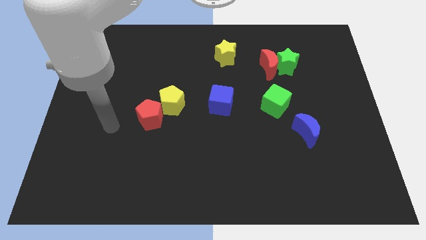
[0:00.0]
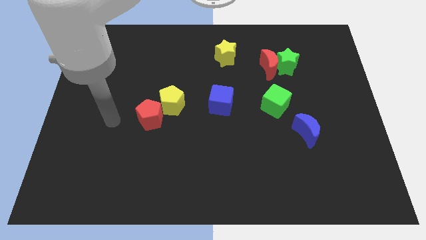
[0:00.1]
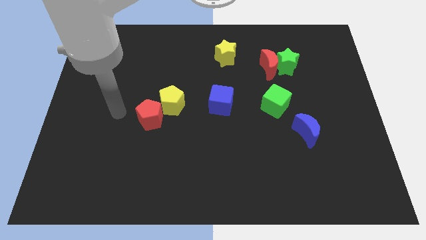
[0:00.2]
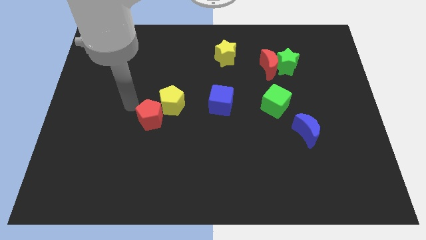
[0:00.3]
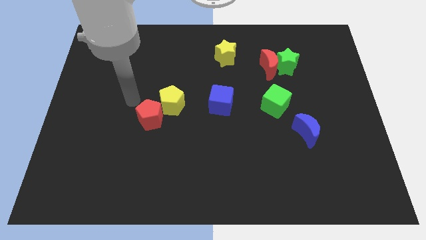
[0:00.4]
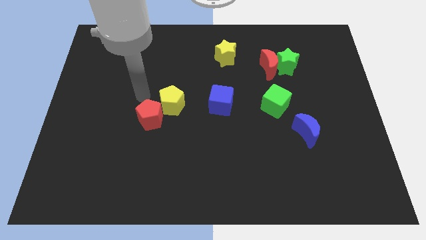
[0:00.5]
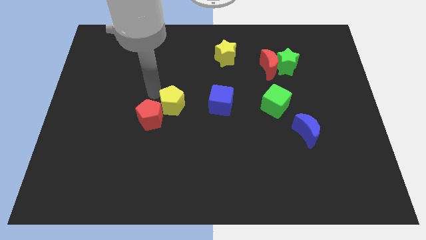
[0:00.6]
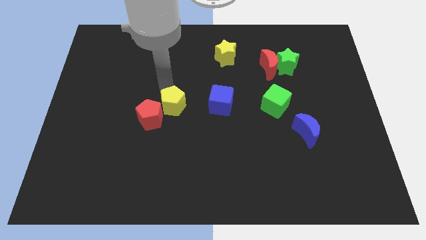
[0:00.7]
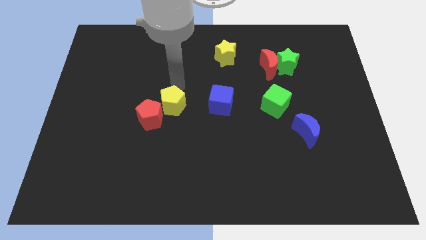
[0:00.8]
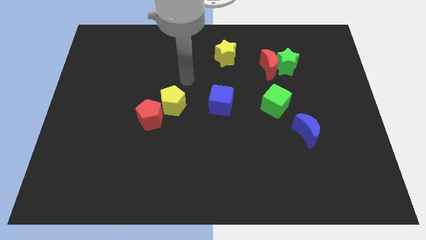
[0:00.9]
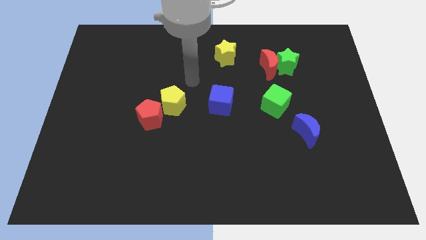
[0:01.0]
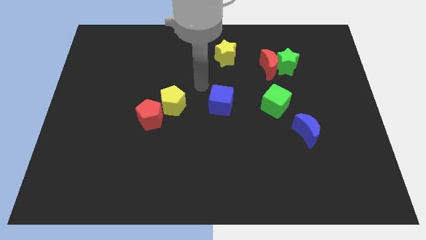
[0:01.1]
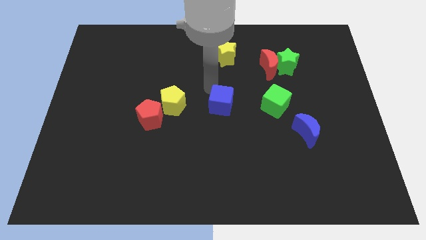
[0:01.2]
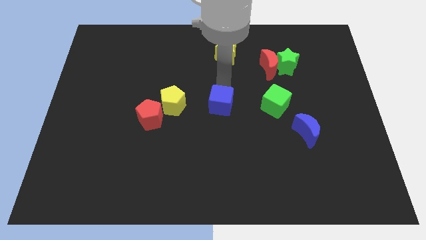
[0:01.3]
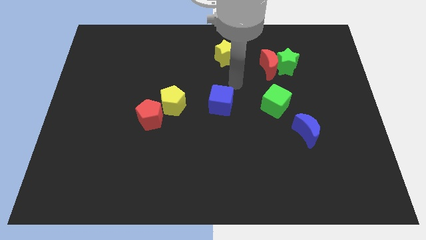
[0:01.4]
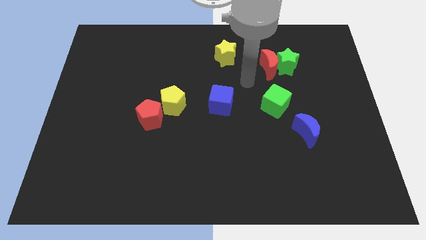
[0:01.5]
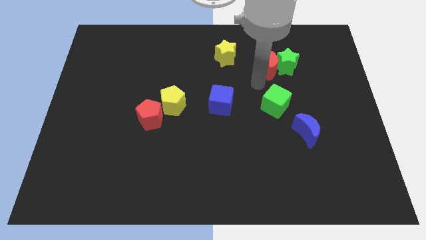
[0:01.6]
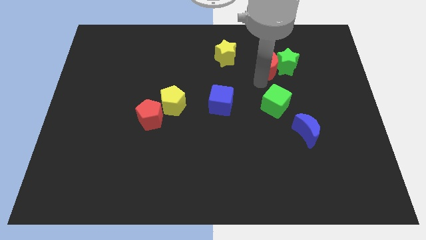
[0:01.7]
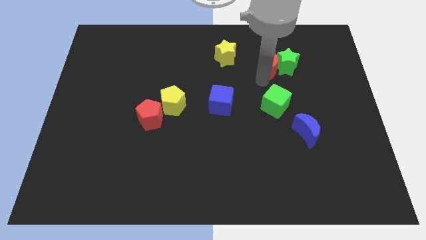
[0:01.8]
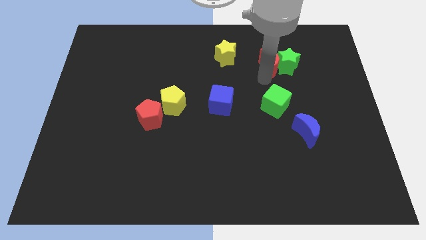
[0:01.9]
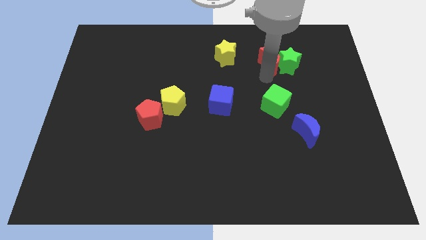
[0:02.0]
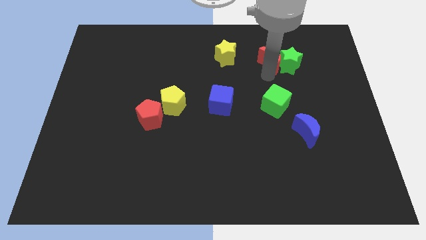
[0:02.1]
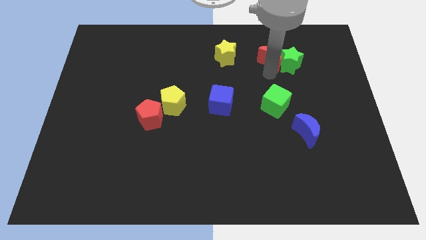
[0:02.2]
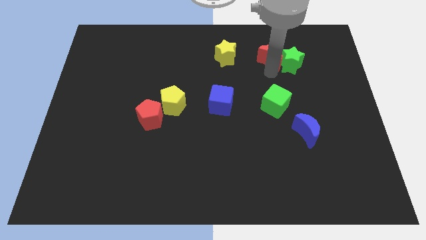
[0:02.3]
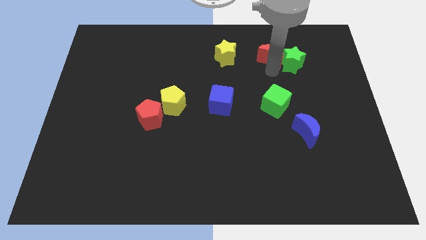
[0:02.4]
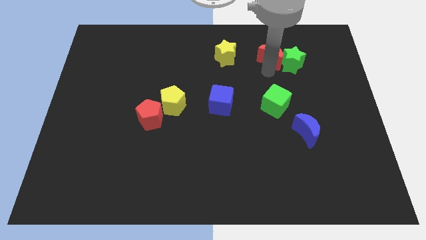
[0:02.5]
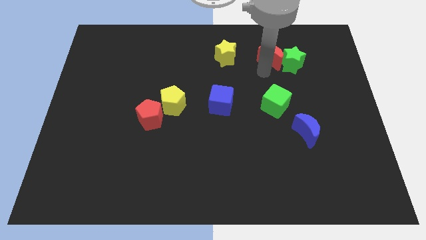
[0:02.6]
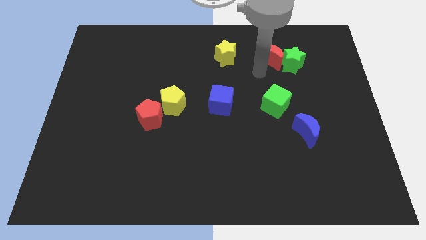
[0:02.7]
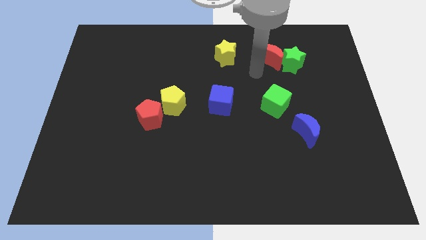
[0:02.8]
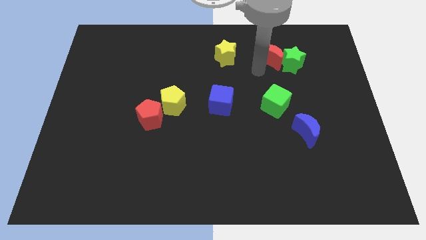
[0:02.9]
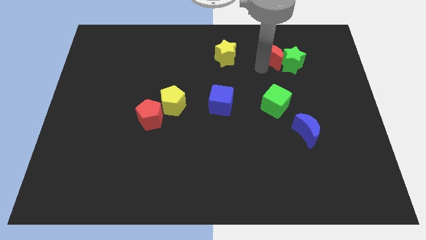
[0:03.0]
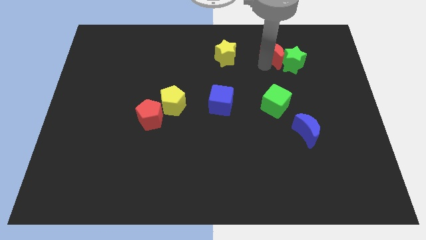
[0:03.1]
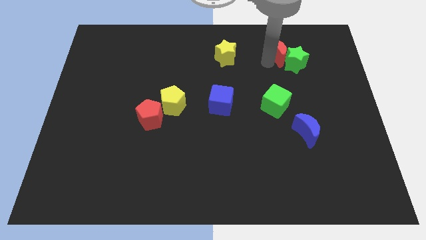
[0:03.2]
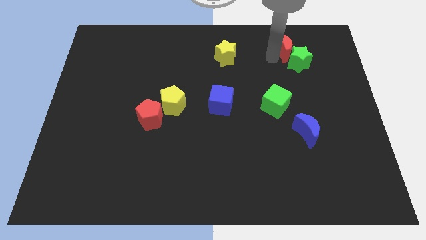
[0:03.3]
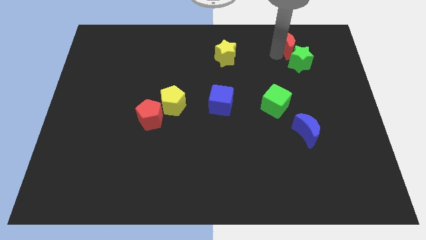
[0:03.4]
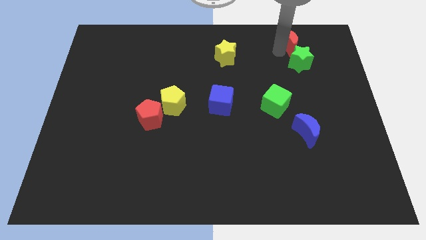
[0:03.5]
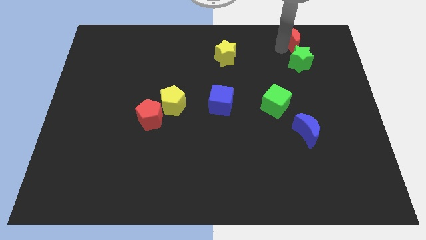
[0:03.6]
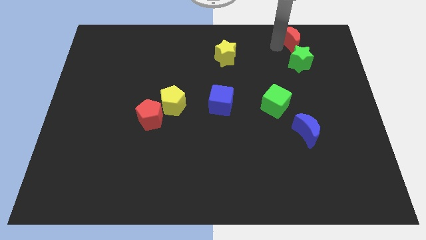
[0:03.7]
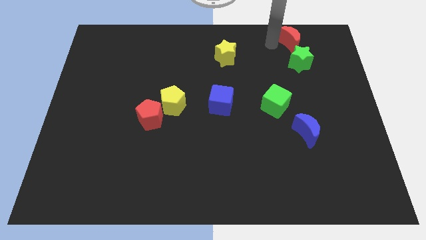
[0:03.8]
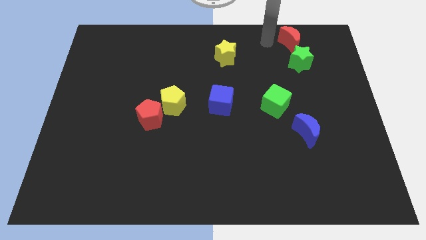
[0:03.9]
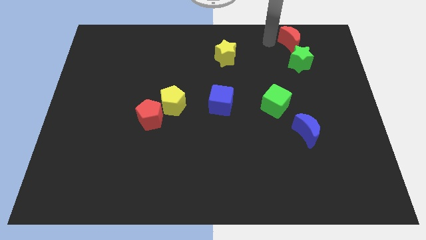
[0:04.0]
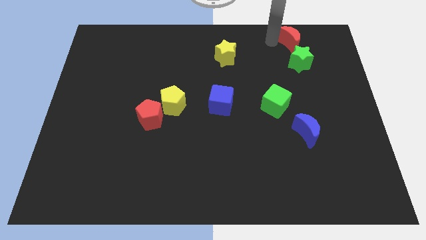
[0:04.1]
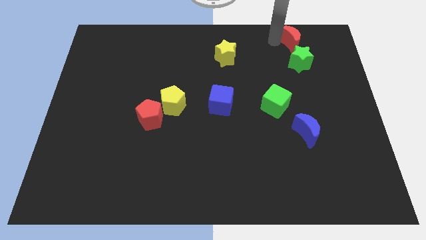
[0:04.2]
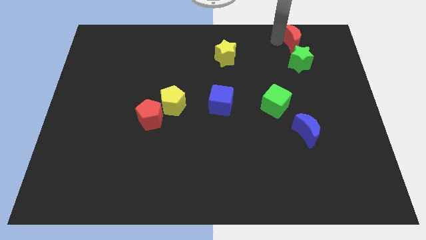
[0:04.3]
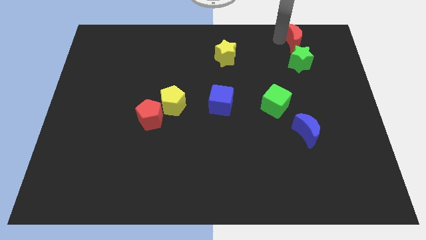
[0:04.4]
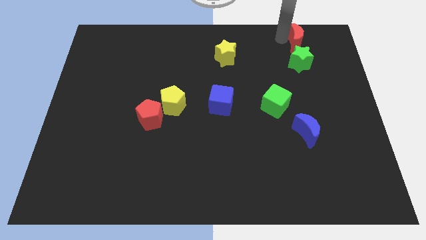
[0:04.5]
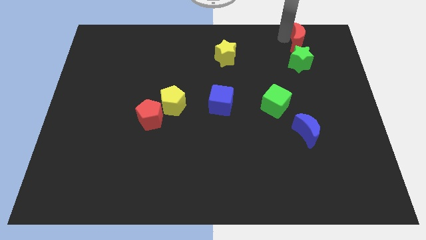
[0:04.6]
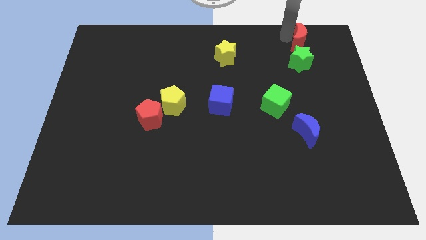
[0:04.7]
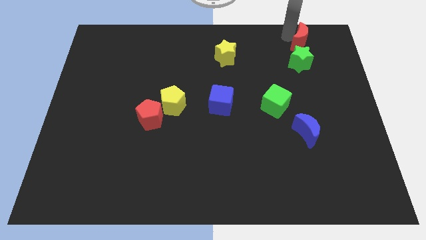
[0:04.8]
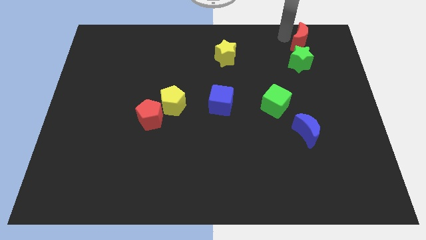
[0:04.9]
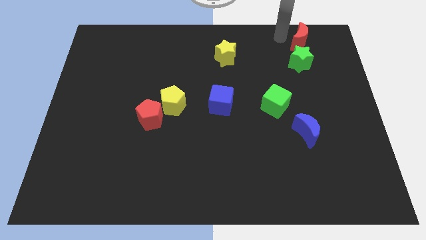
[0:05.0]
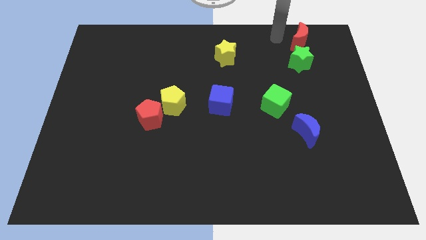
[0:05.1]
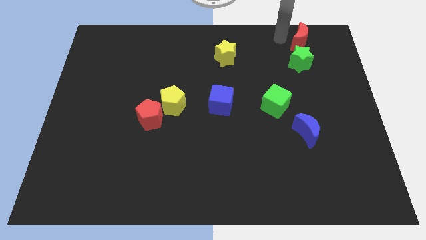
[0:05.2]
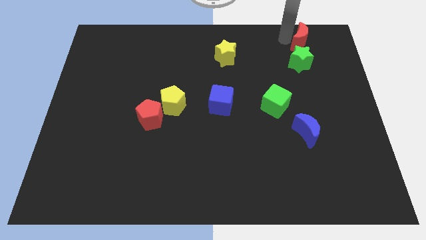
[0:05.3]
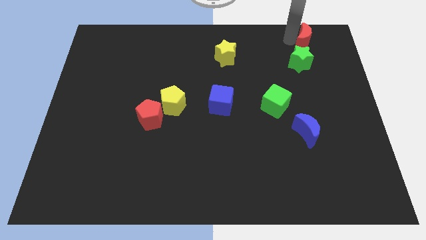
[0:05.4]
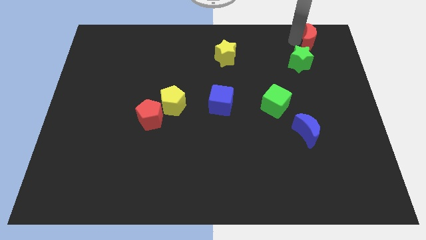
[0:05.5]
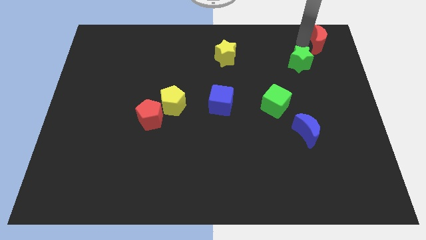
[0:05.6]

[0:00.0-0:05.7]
slide the red moon to the top right

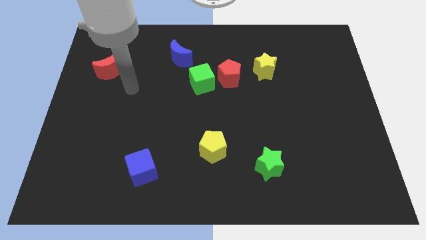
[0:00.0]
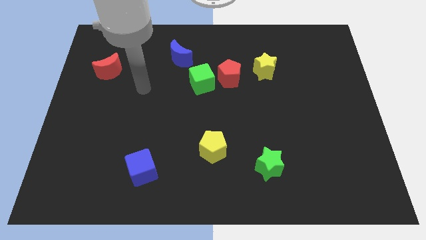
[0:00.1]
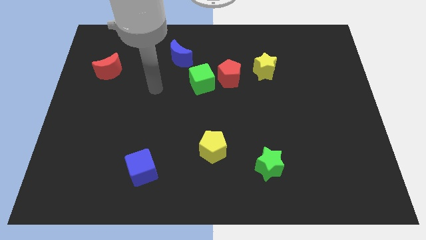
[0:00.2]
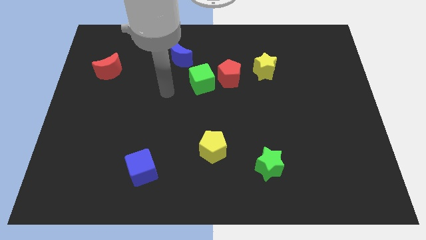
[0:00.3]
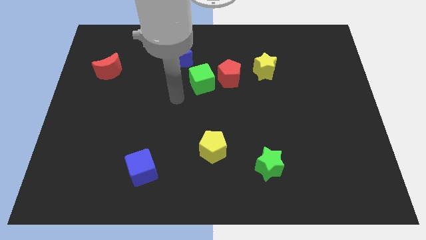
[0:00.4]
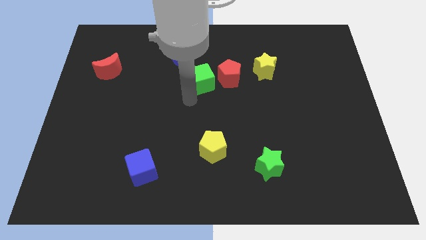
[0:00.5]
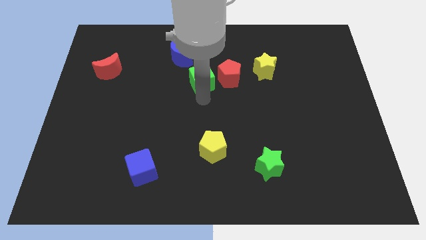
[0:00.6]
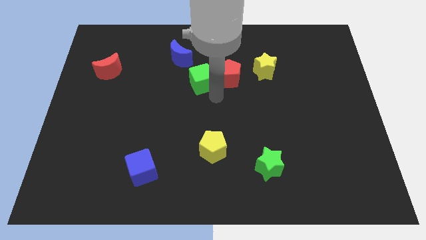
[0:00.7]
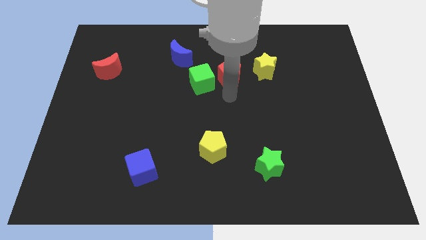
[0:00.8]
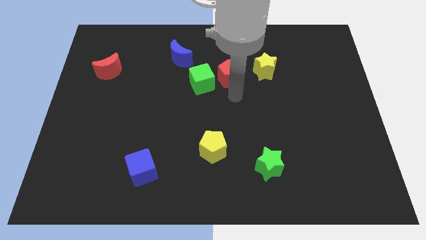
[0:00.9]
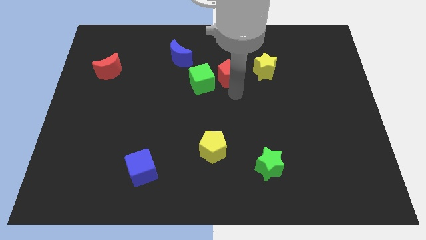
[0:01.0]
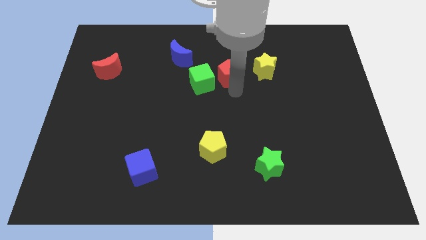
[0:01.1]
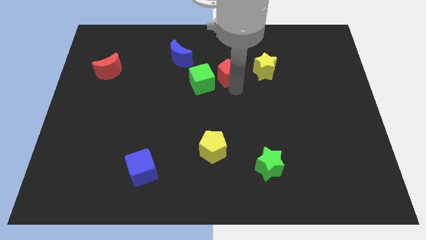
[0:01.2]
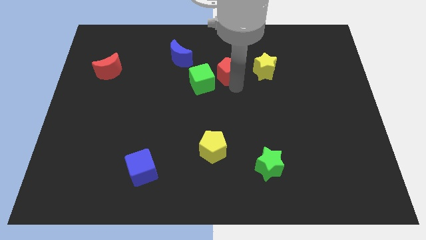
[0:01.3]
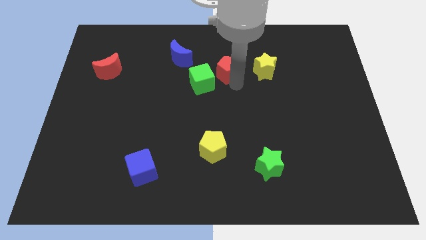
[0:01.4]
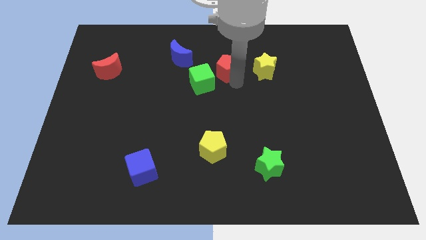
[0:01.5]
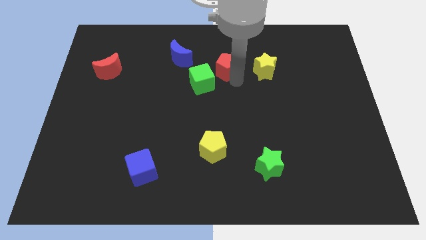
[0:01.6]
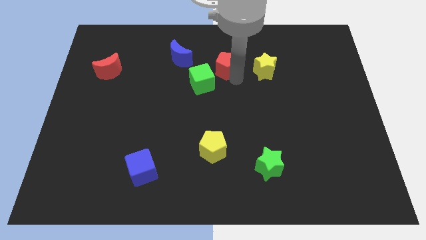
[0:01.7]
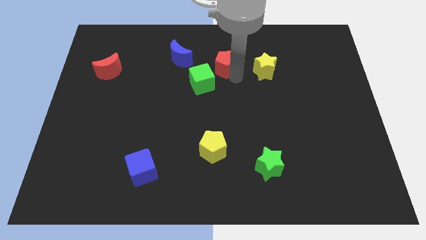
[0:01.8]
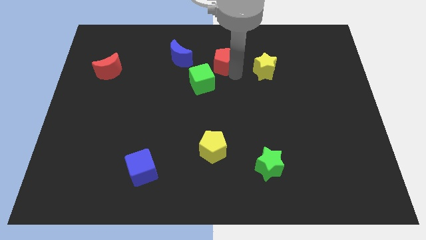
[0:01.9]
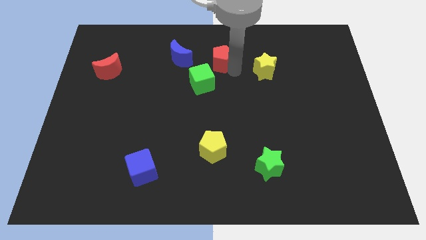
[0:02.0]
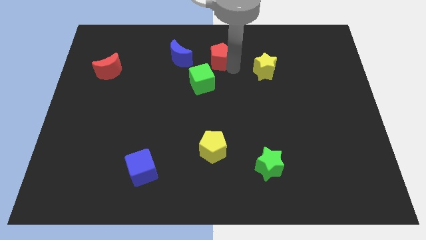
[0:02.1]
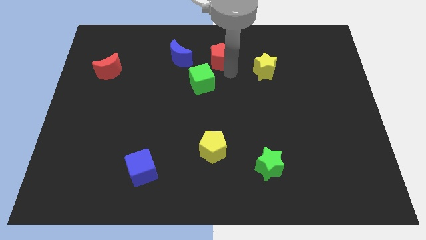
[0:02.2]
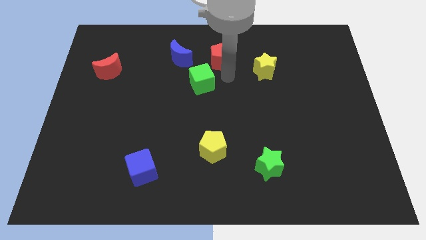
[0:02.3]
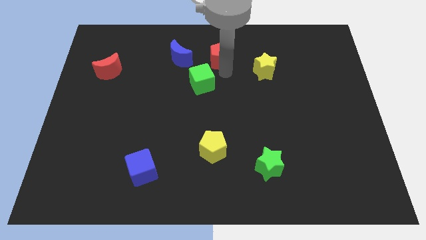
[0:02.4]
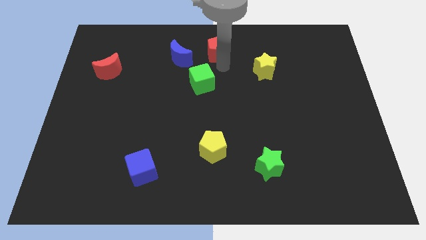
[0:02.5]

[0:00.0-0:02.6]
slide the red pentagon to the towards your base
